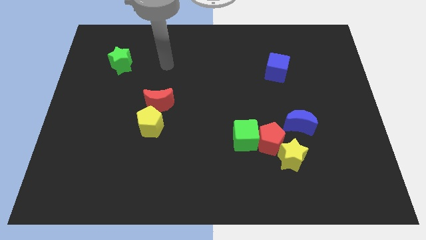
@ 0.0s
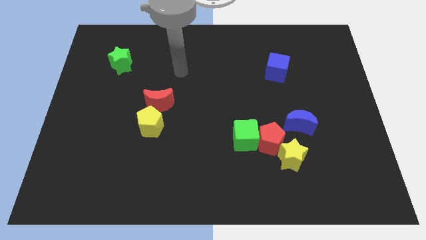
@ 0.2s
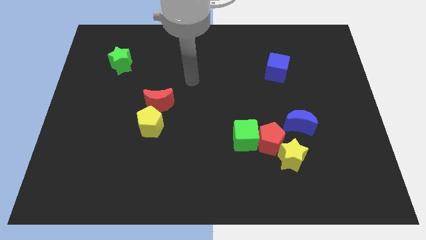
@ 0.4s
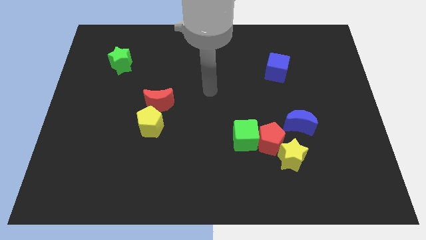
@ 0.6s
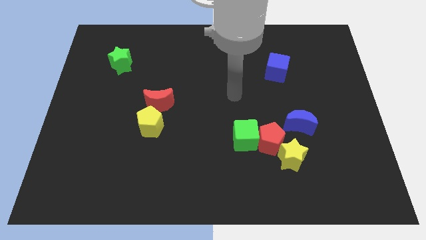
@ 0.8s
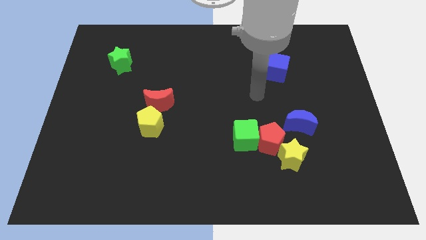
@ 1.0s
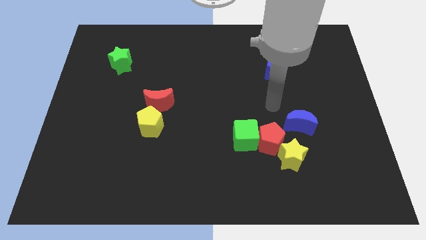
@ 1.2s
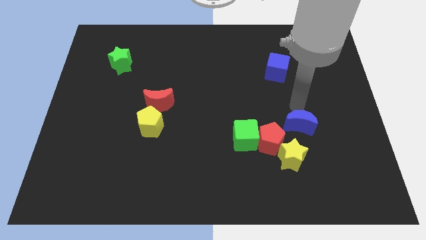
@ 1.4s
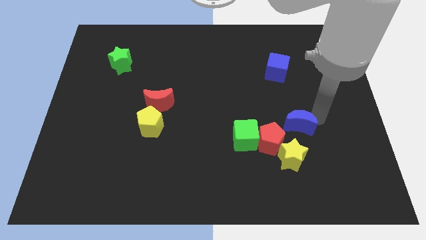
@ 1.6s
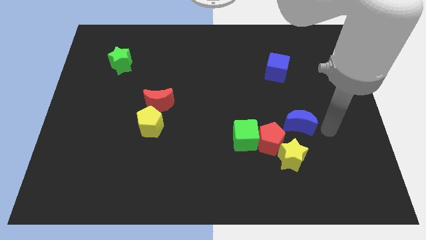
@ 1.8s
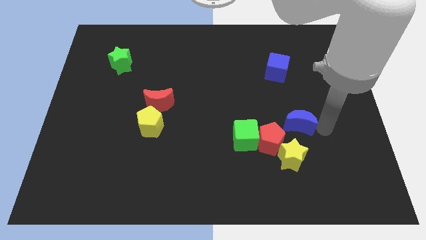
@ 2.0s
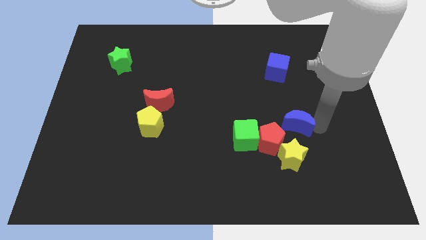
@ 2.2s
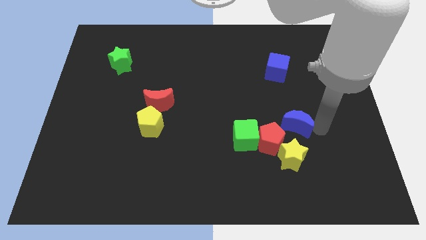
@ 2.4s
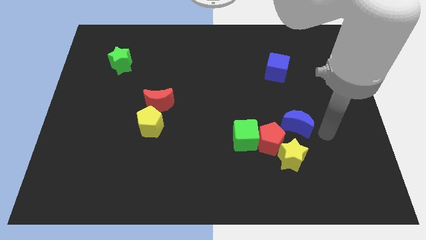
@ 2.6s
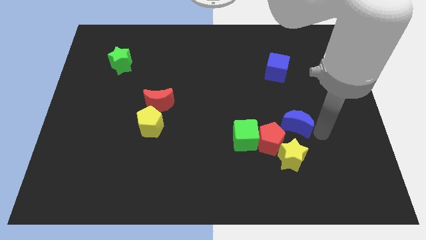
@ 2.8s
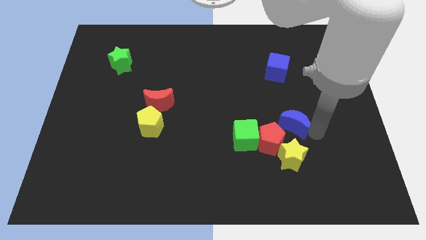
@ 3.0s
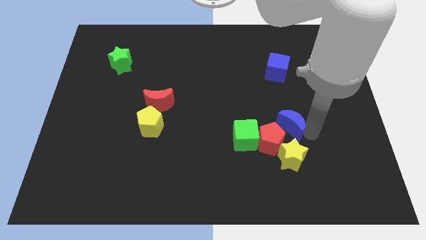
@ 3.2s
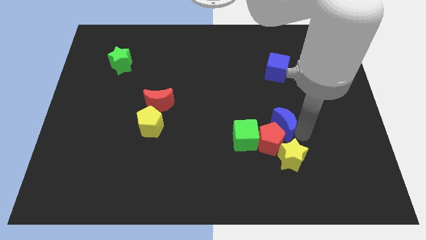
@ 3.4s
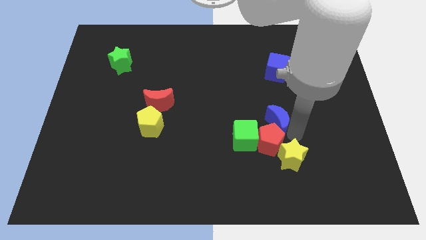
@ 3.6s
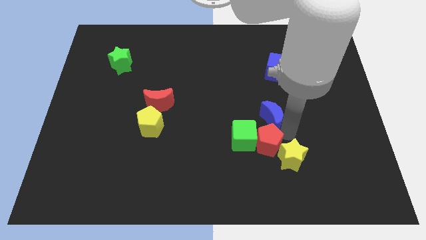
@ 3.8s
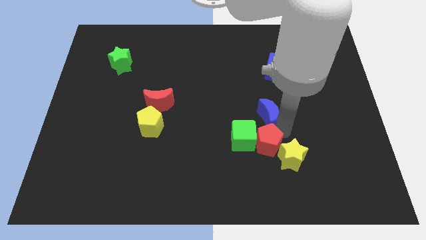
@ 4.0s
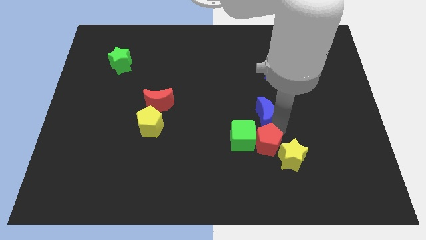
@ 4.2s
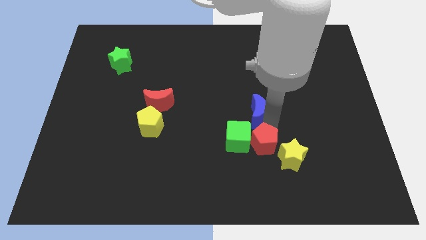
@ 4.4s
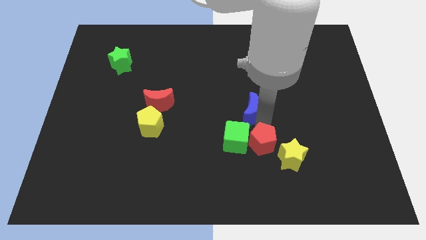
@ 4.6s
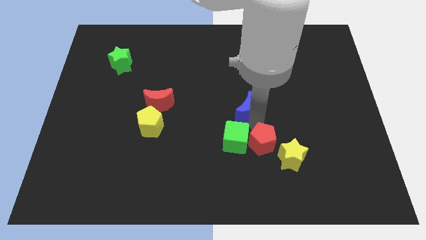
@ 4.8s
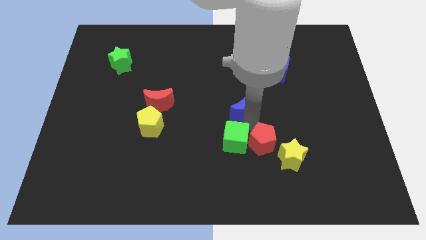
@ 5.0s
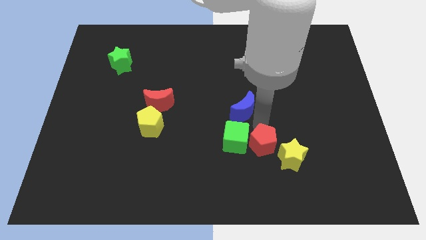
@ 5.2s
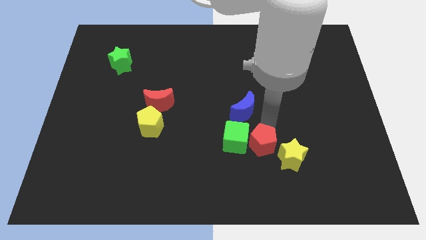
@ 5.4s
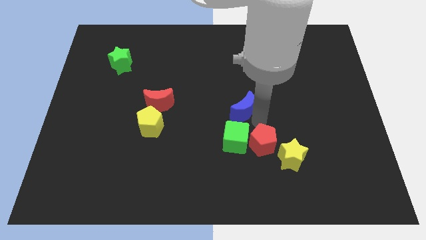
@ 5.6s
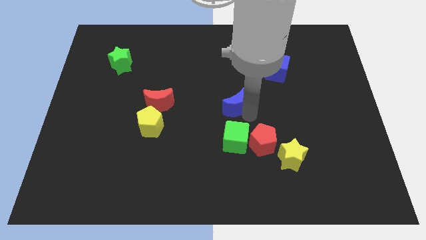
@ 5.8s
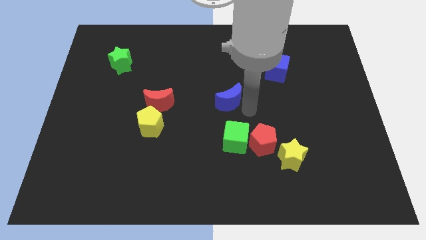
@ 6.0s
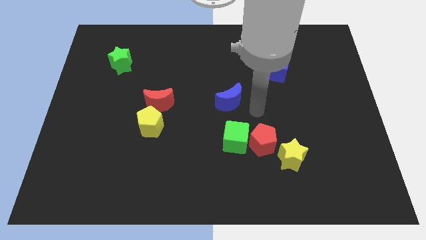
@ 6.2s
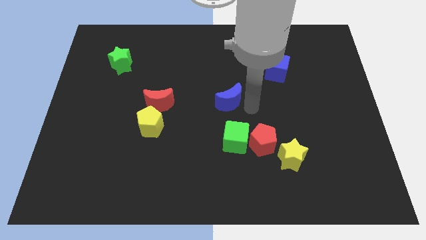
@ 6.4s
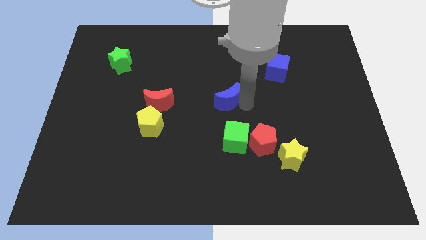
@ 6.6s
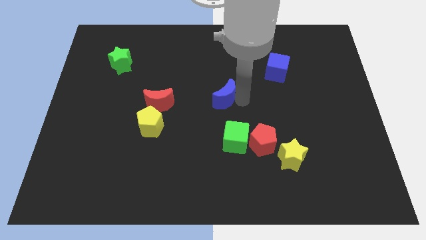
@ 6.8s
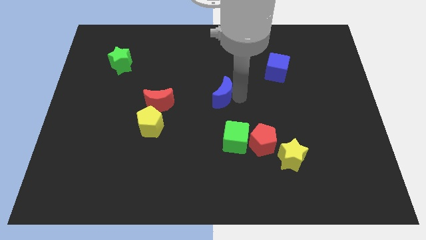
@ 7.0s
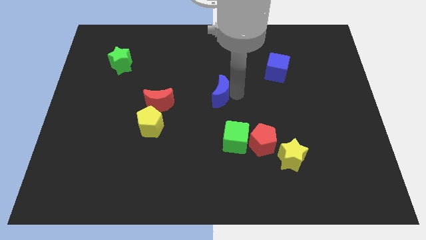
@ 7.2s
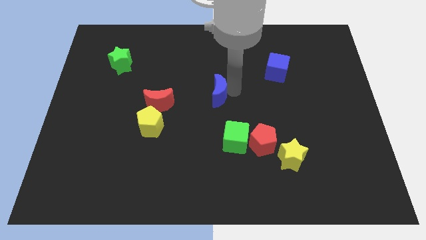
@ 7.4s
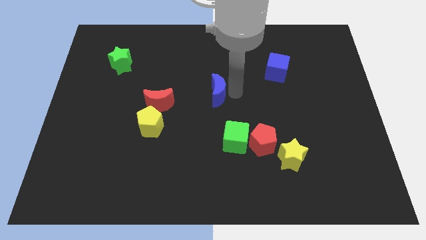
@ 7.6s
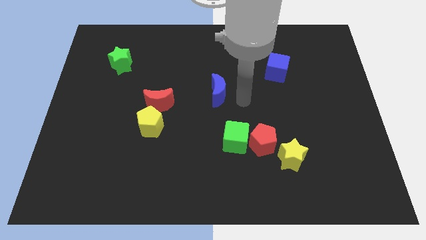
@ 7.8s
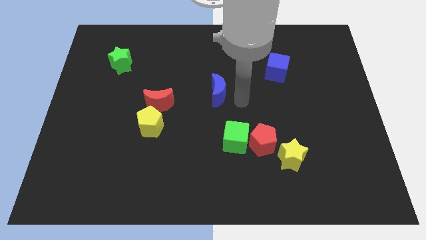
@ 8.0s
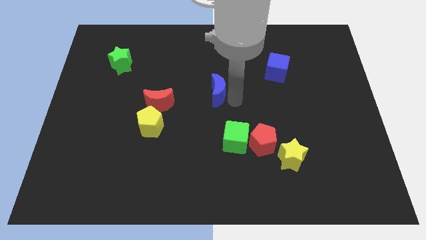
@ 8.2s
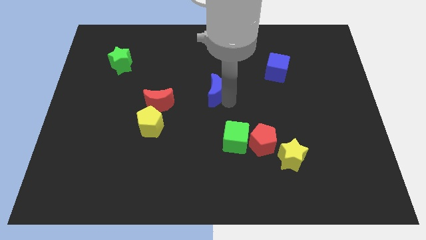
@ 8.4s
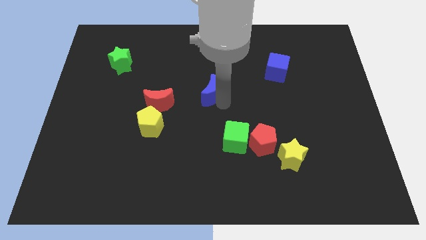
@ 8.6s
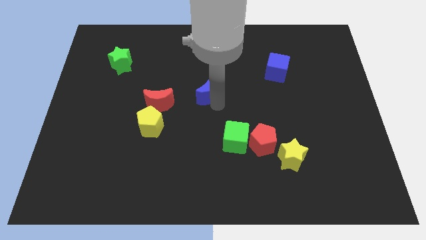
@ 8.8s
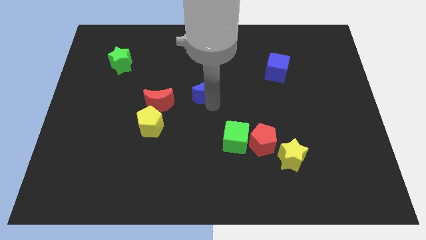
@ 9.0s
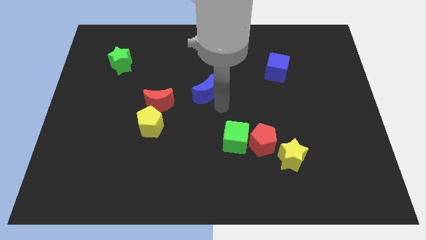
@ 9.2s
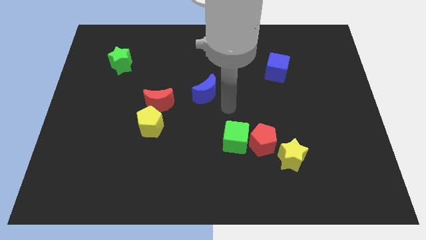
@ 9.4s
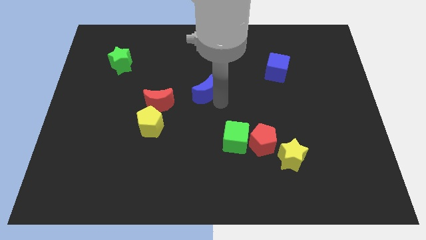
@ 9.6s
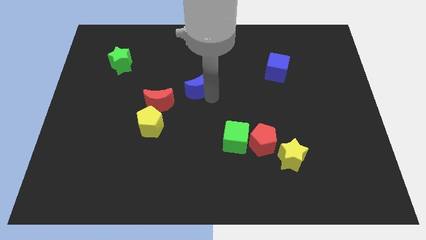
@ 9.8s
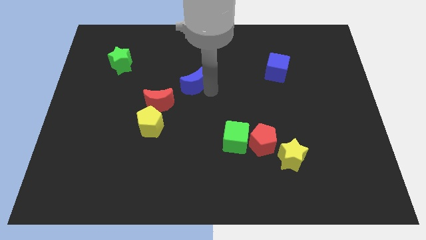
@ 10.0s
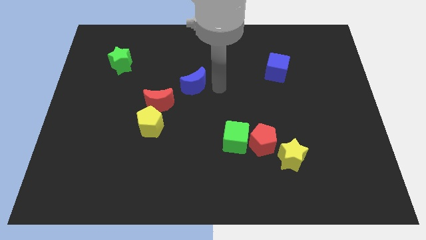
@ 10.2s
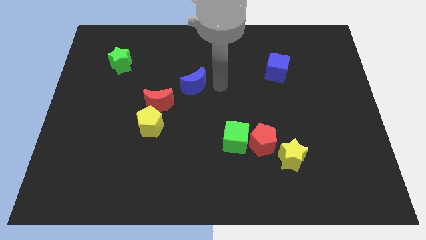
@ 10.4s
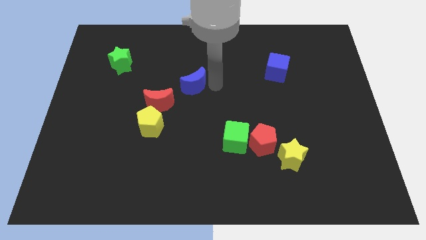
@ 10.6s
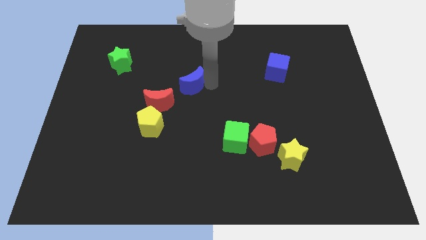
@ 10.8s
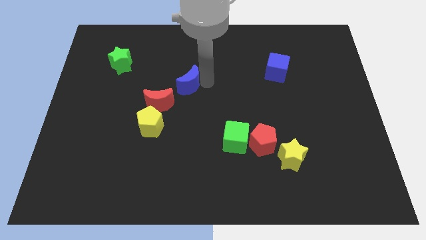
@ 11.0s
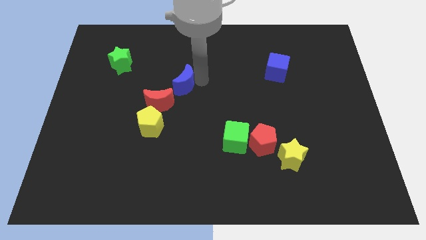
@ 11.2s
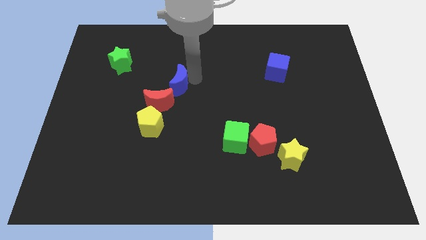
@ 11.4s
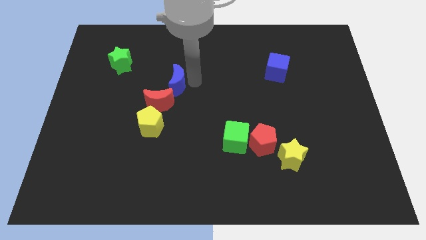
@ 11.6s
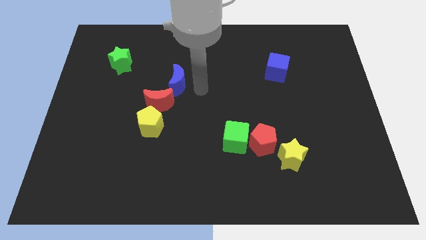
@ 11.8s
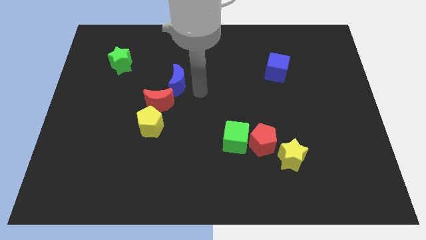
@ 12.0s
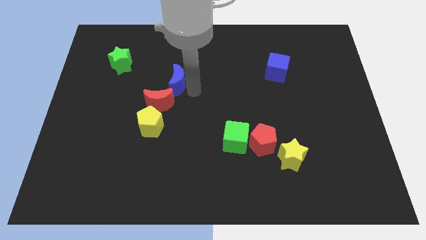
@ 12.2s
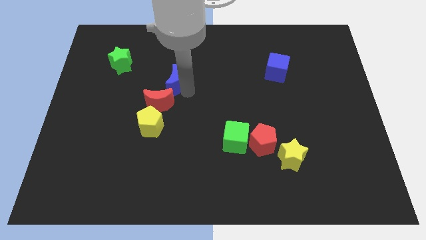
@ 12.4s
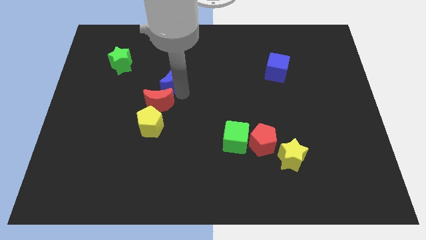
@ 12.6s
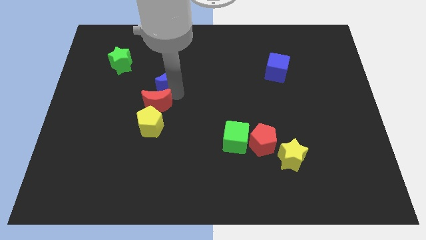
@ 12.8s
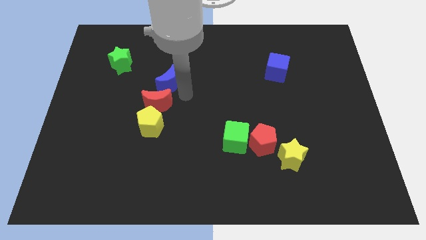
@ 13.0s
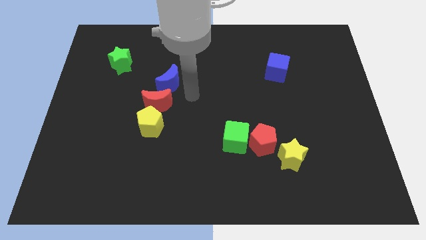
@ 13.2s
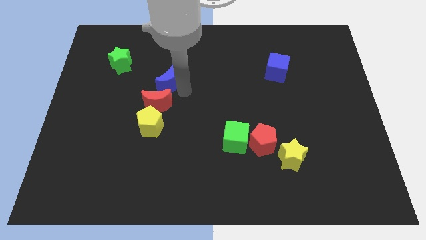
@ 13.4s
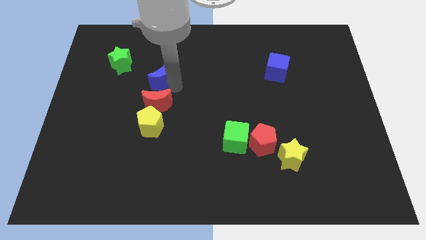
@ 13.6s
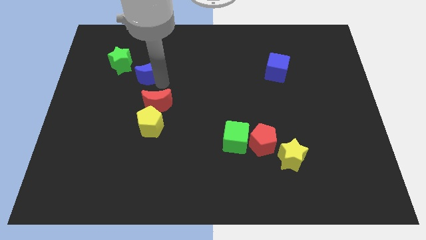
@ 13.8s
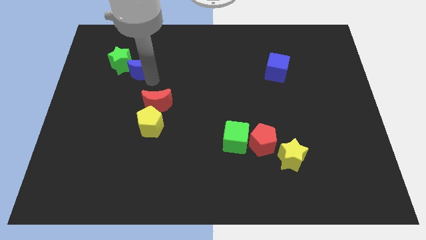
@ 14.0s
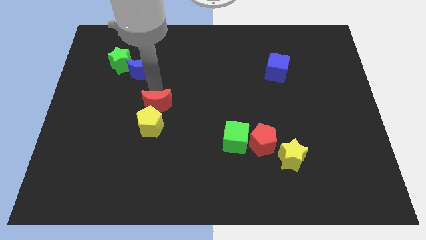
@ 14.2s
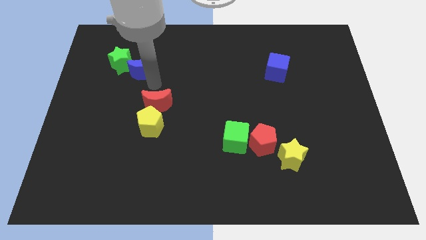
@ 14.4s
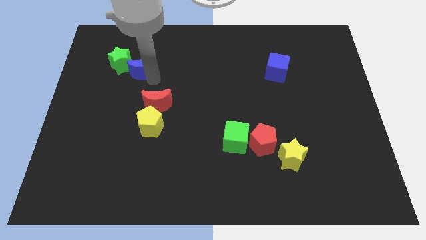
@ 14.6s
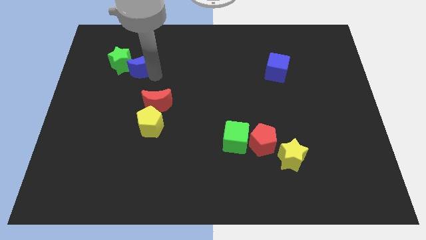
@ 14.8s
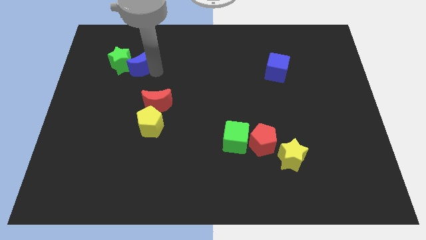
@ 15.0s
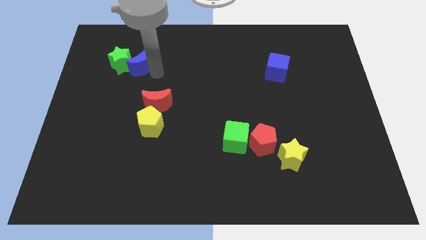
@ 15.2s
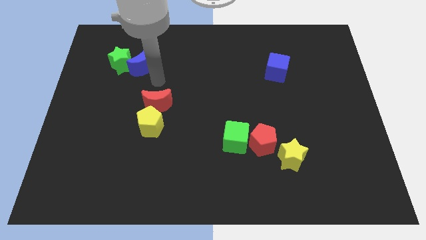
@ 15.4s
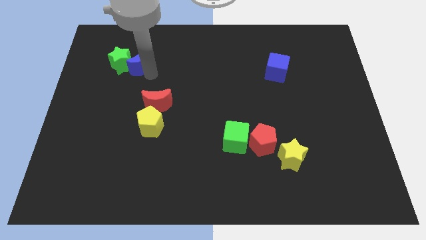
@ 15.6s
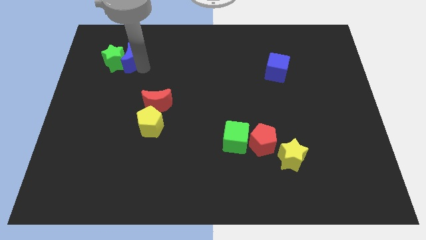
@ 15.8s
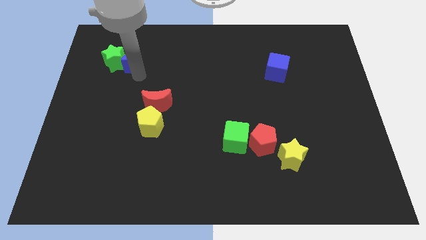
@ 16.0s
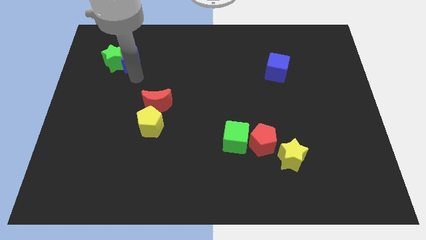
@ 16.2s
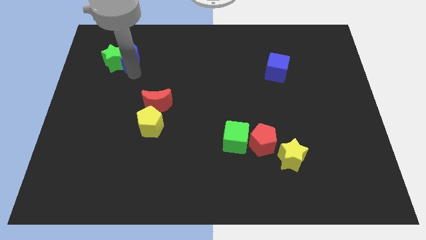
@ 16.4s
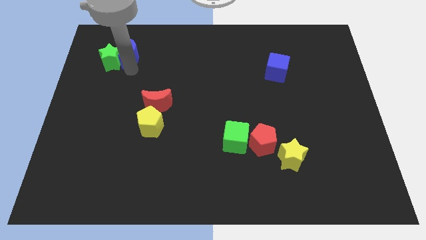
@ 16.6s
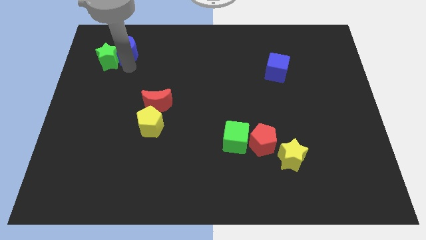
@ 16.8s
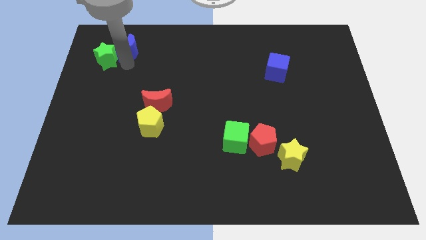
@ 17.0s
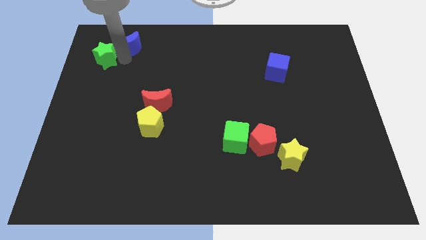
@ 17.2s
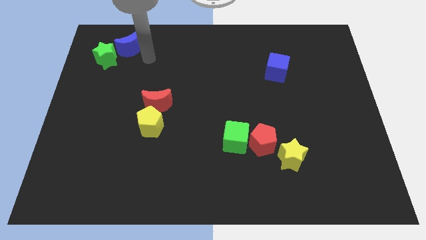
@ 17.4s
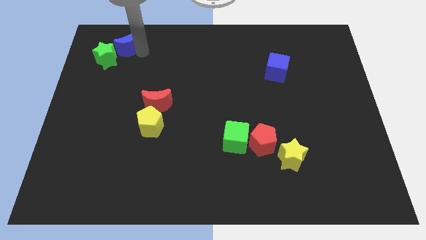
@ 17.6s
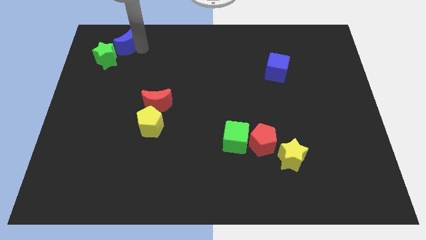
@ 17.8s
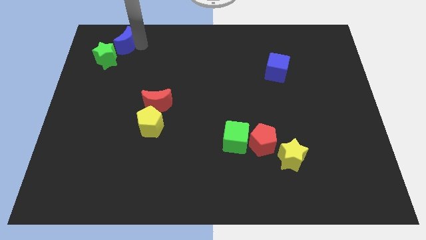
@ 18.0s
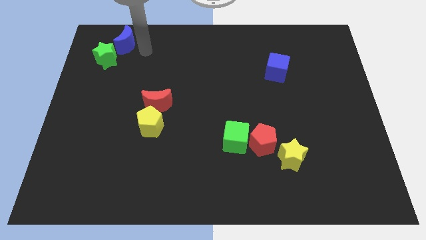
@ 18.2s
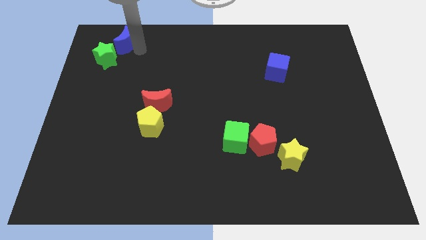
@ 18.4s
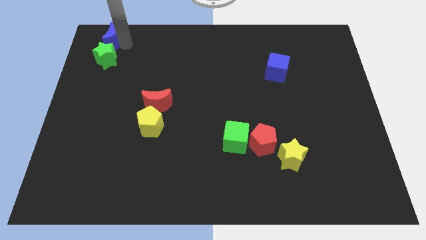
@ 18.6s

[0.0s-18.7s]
slide the blue moon to the top left of the board
